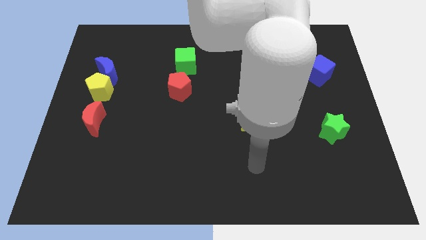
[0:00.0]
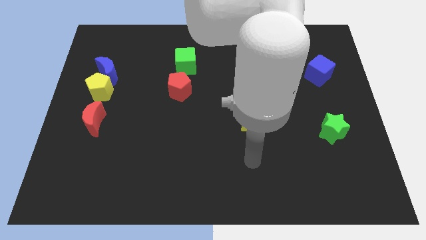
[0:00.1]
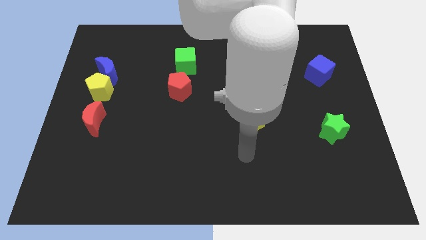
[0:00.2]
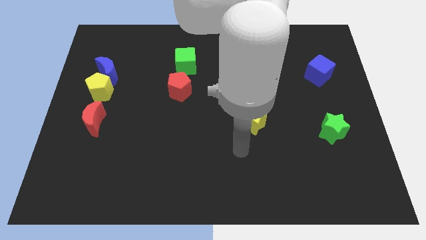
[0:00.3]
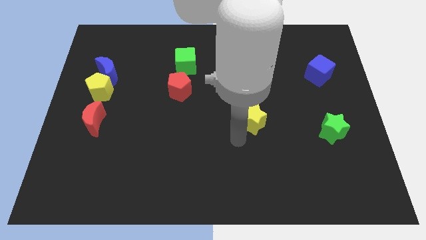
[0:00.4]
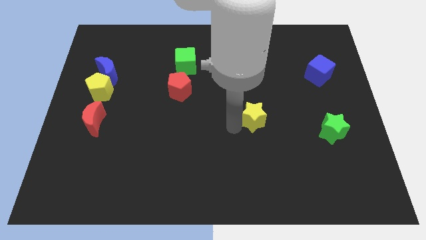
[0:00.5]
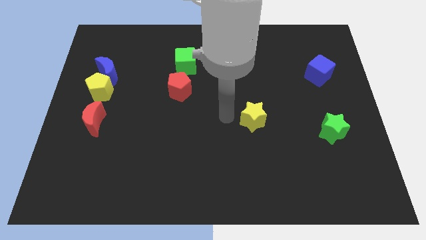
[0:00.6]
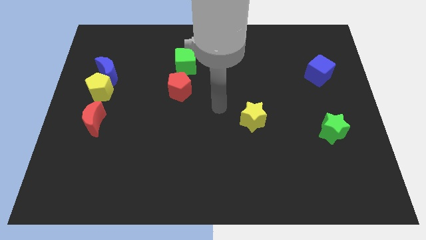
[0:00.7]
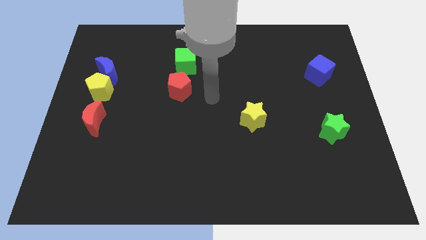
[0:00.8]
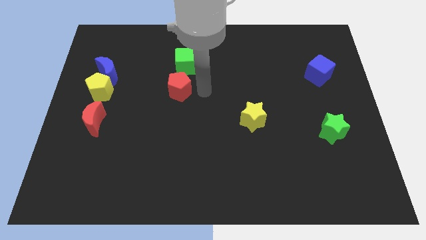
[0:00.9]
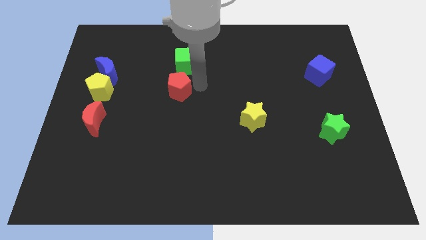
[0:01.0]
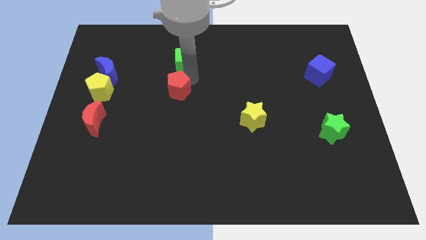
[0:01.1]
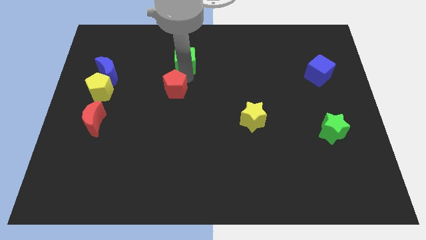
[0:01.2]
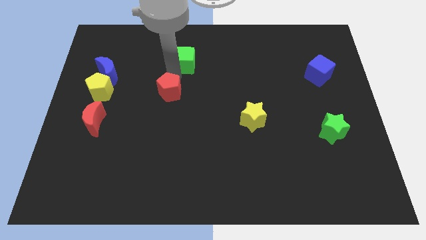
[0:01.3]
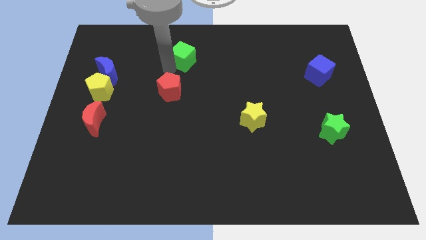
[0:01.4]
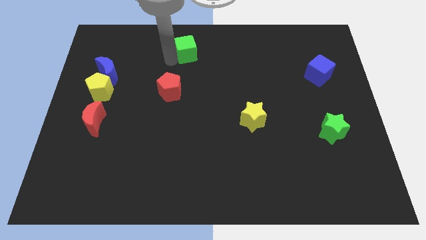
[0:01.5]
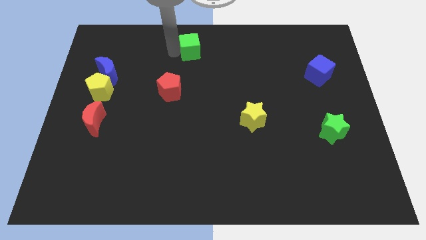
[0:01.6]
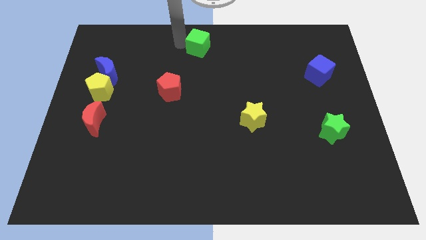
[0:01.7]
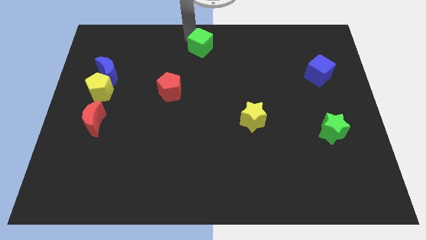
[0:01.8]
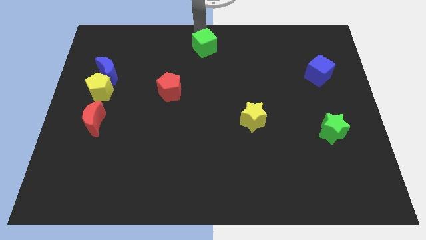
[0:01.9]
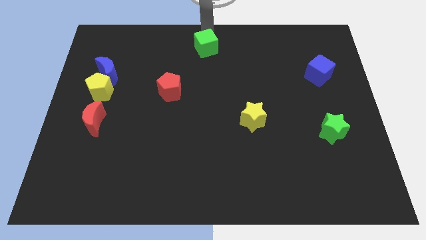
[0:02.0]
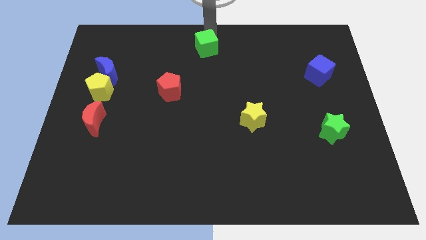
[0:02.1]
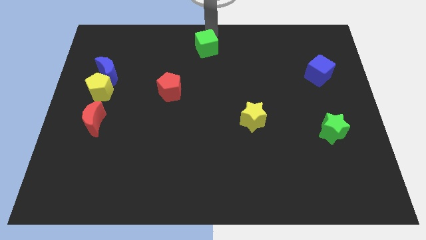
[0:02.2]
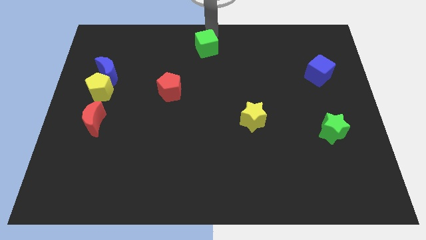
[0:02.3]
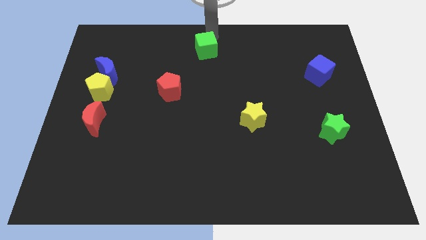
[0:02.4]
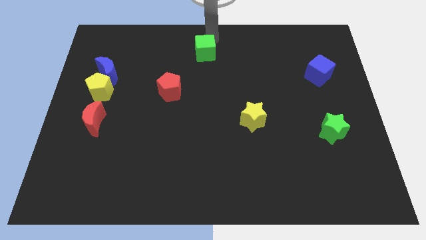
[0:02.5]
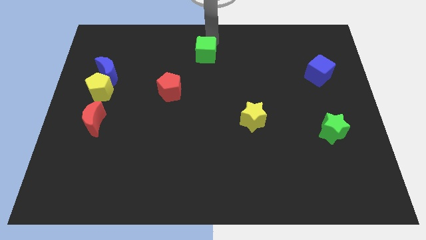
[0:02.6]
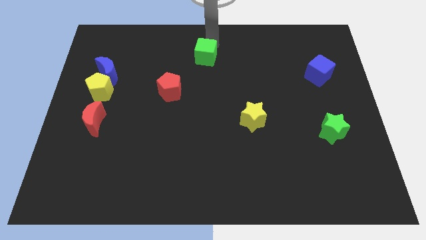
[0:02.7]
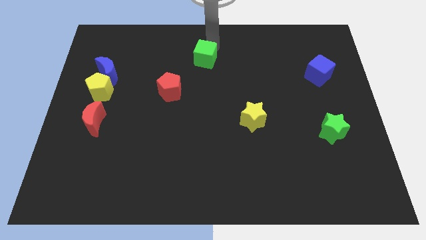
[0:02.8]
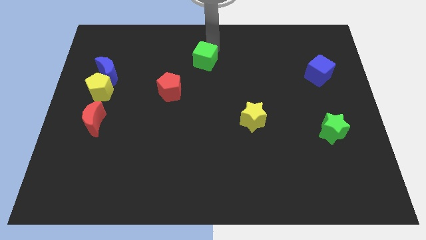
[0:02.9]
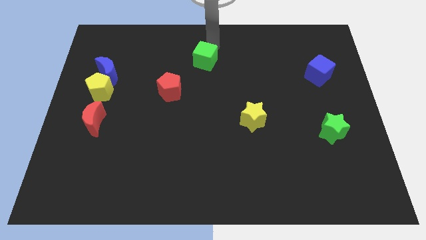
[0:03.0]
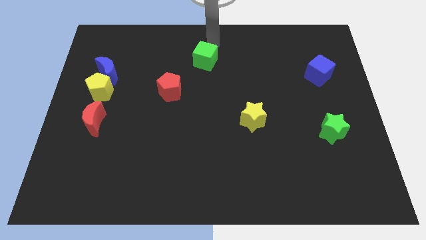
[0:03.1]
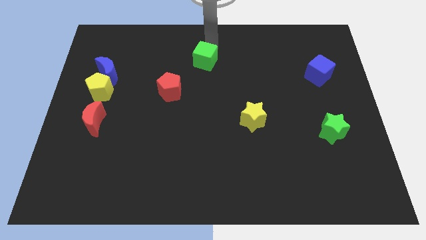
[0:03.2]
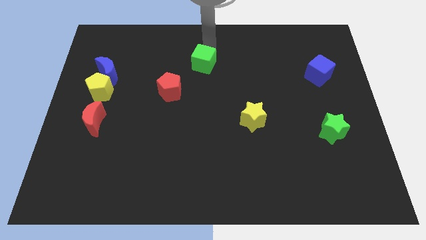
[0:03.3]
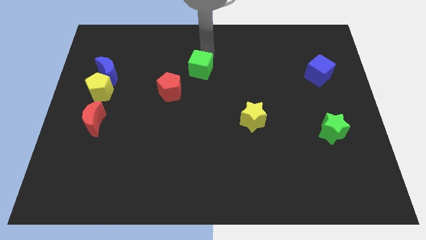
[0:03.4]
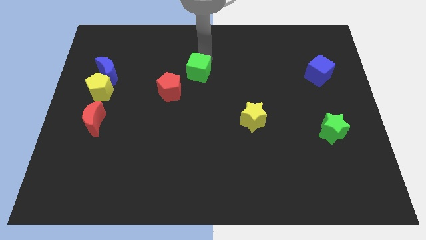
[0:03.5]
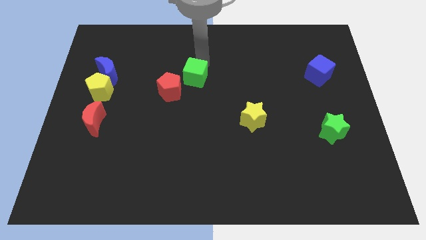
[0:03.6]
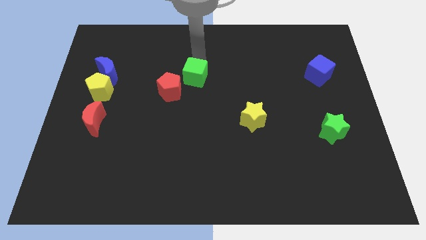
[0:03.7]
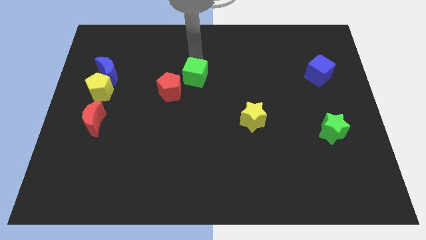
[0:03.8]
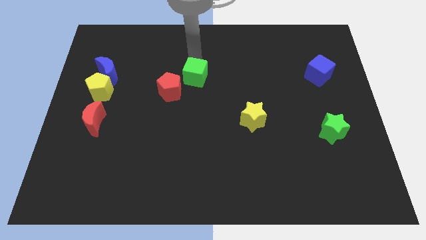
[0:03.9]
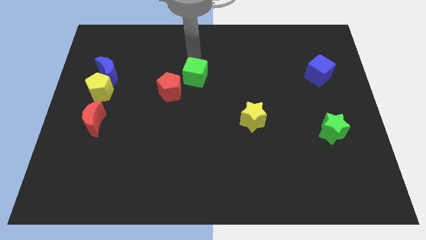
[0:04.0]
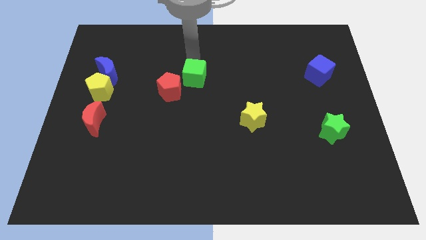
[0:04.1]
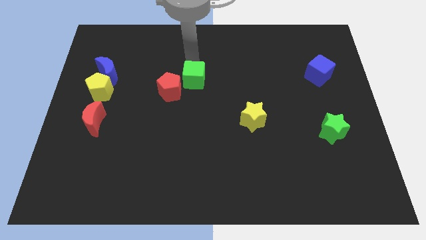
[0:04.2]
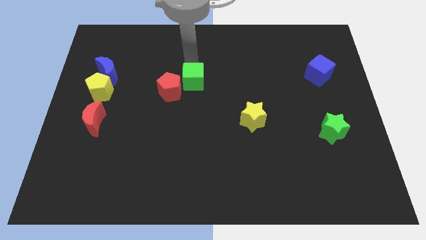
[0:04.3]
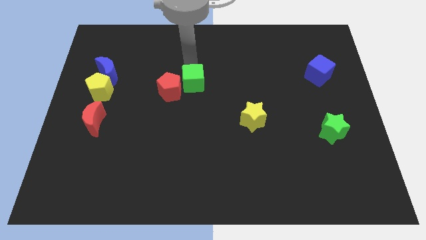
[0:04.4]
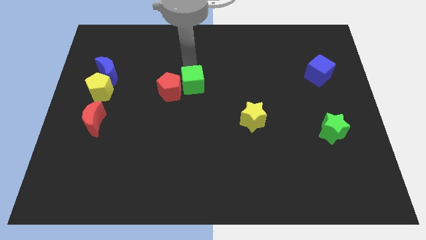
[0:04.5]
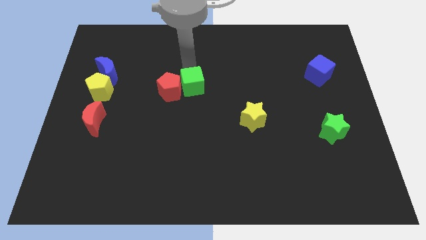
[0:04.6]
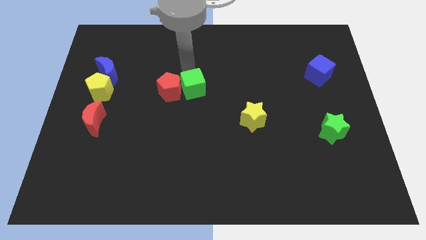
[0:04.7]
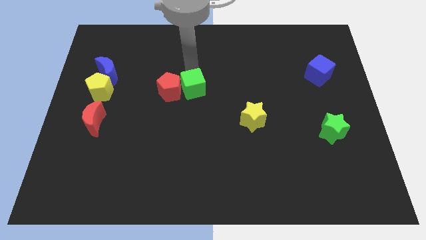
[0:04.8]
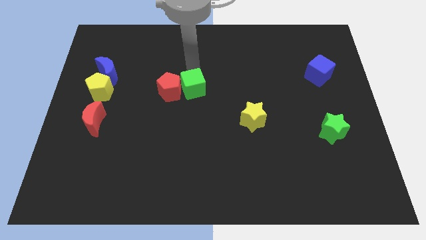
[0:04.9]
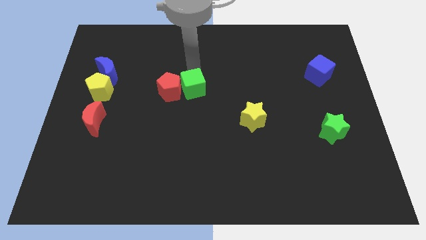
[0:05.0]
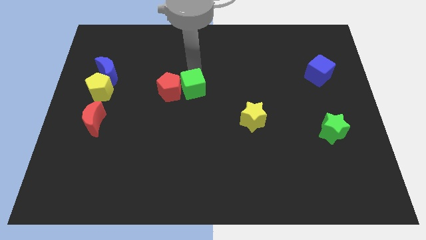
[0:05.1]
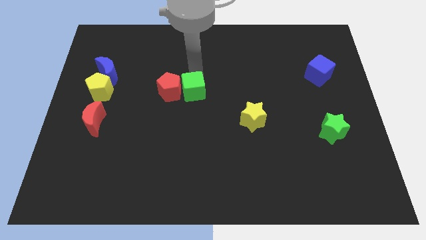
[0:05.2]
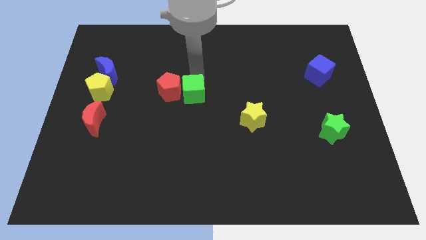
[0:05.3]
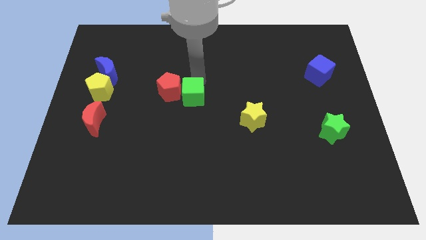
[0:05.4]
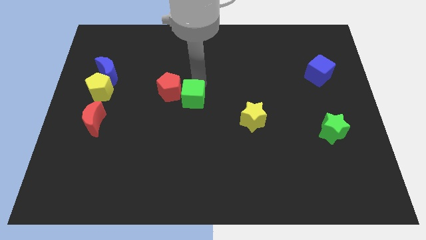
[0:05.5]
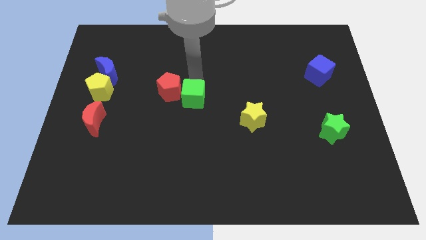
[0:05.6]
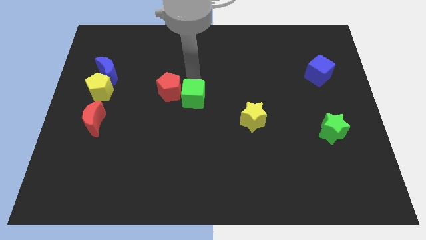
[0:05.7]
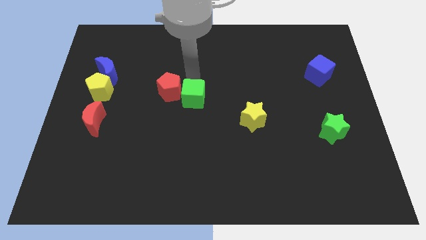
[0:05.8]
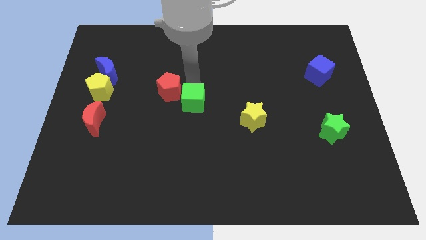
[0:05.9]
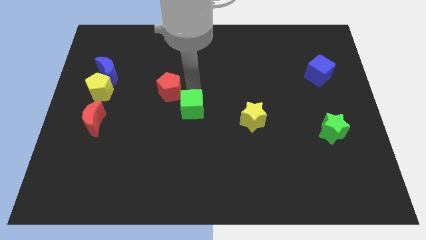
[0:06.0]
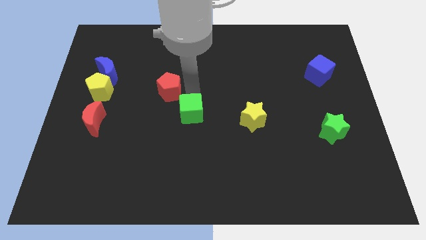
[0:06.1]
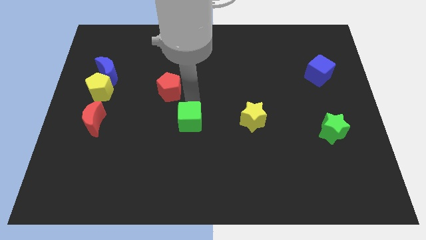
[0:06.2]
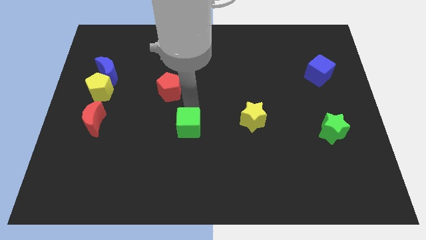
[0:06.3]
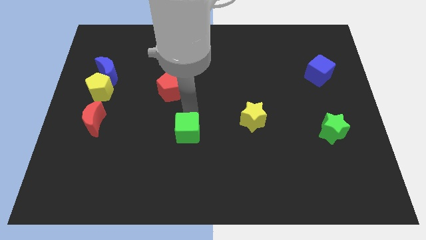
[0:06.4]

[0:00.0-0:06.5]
move the green cube downwards

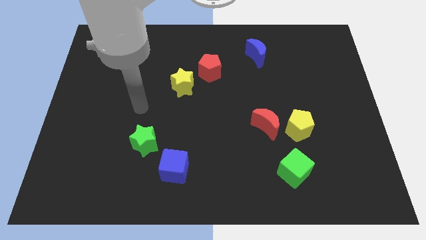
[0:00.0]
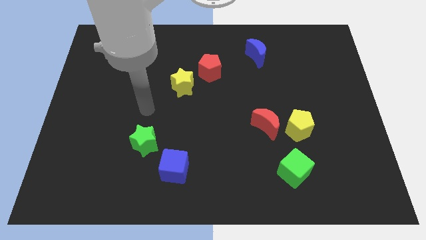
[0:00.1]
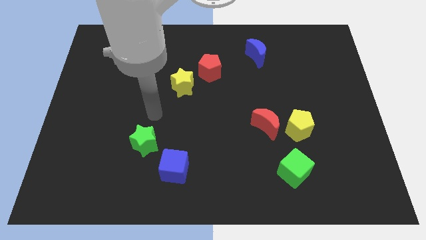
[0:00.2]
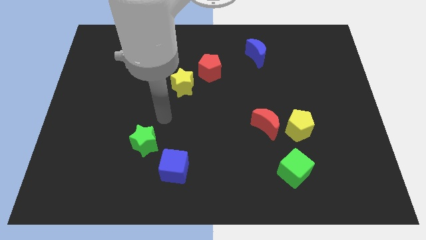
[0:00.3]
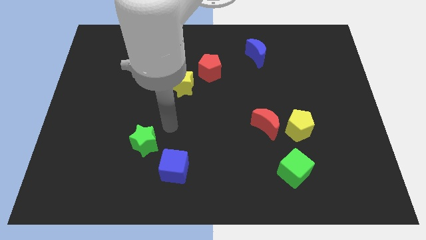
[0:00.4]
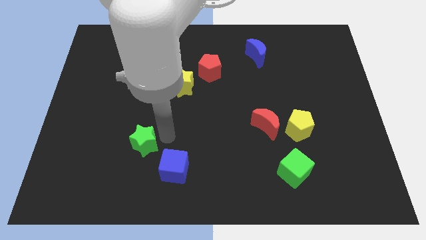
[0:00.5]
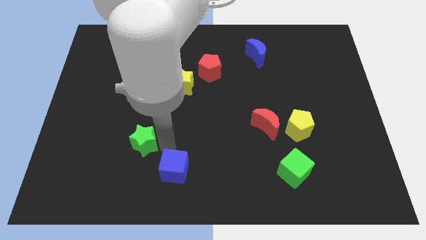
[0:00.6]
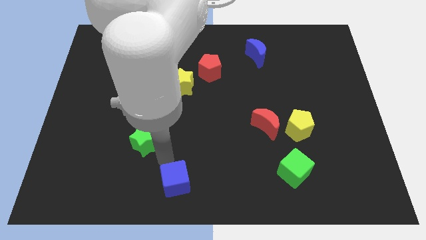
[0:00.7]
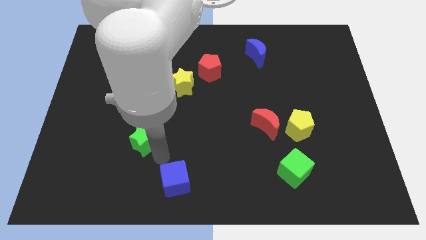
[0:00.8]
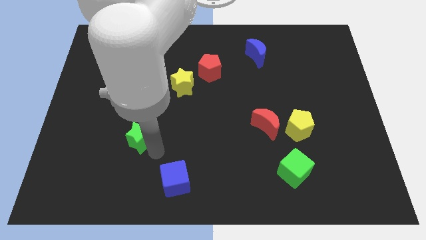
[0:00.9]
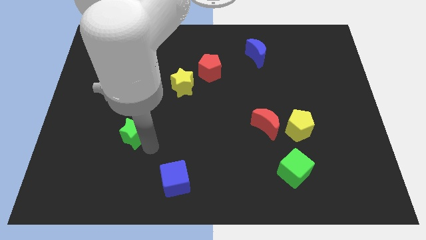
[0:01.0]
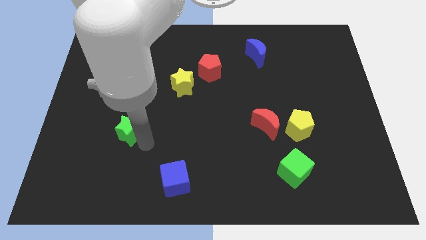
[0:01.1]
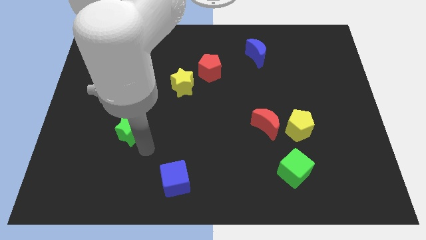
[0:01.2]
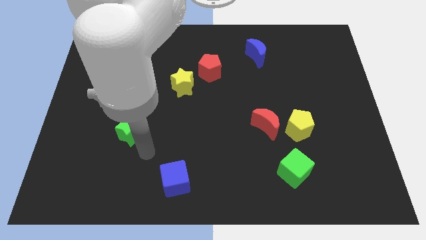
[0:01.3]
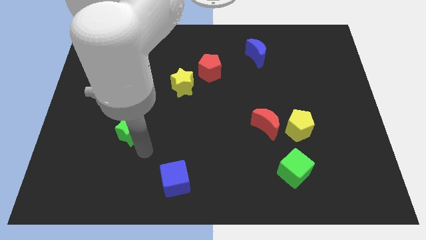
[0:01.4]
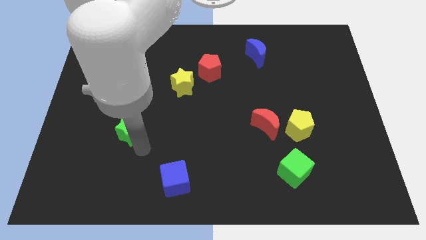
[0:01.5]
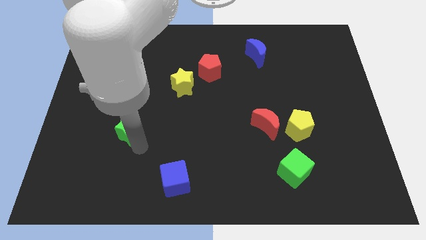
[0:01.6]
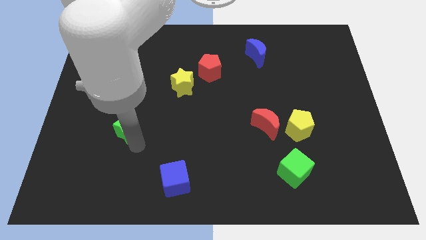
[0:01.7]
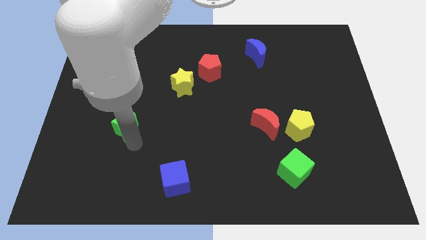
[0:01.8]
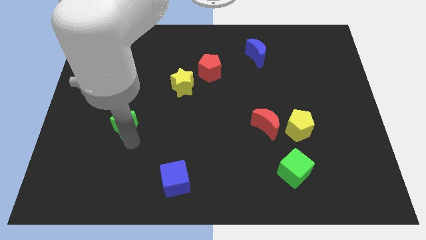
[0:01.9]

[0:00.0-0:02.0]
move the green star a little bit up and then to the left
